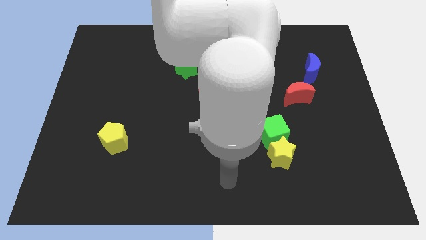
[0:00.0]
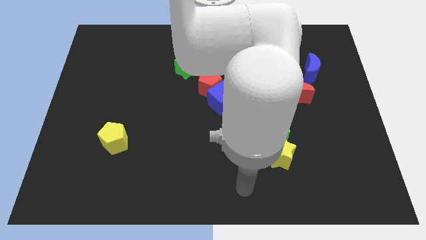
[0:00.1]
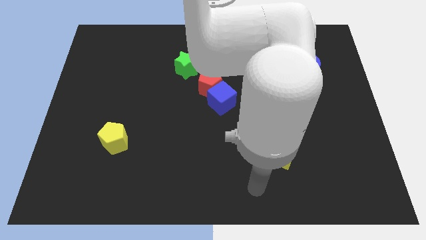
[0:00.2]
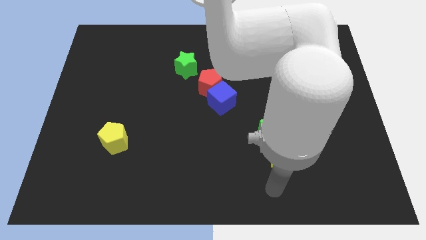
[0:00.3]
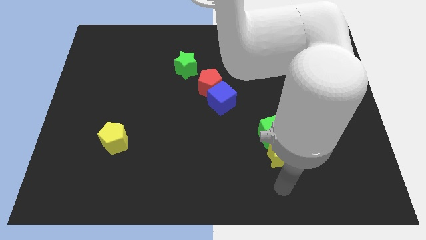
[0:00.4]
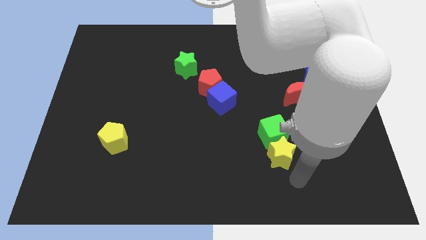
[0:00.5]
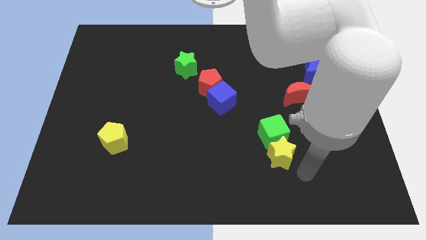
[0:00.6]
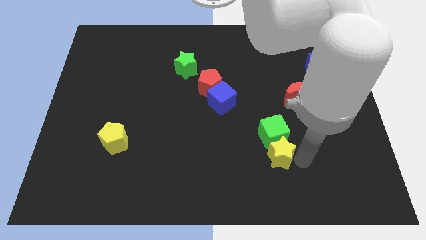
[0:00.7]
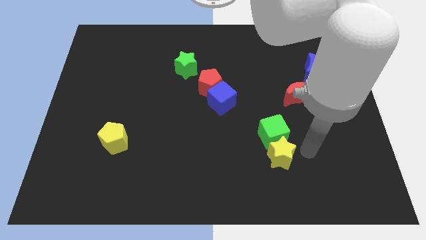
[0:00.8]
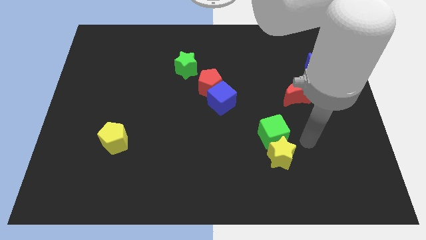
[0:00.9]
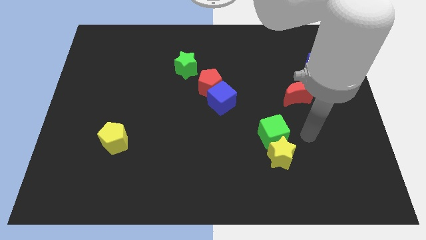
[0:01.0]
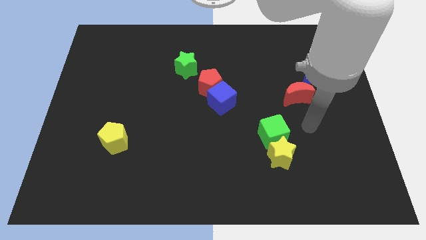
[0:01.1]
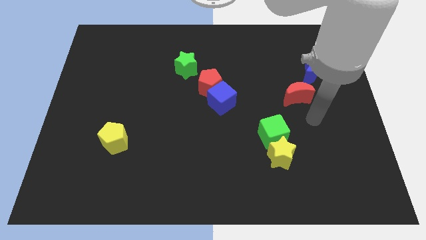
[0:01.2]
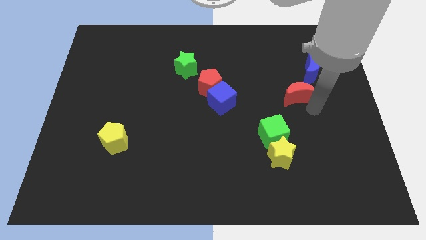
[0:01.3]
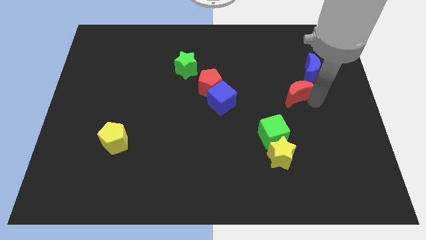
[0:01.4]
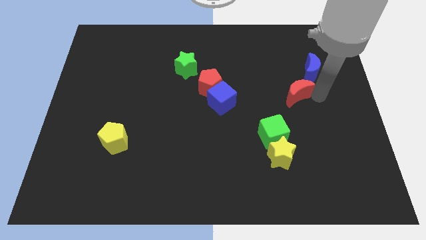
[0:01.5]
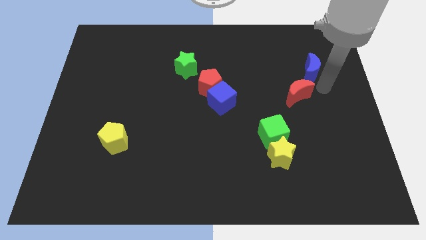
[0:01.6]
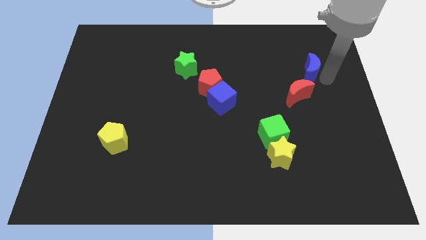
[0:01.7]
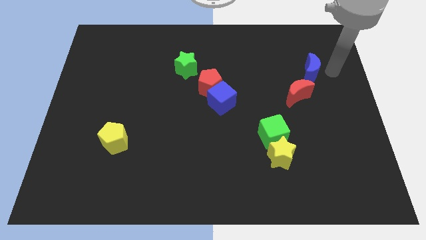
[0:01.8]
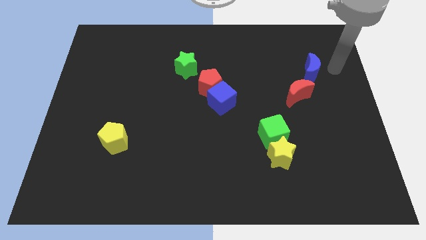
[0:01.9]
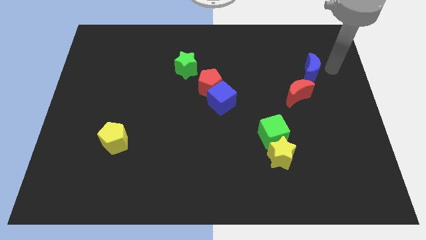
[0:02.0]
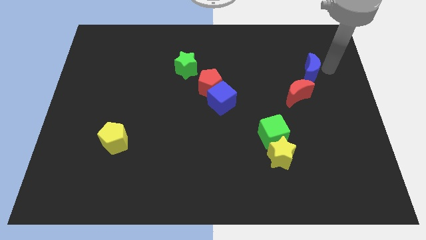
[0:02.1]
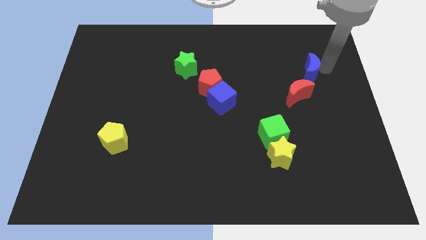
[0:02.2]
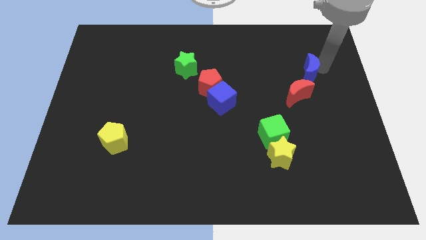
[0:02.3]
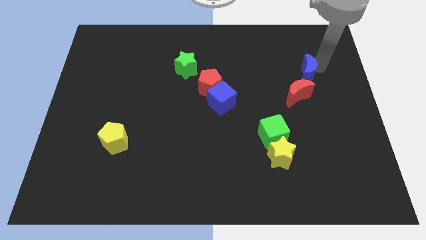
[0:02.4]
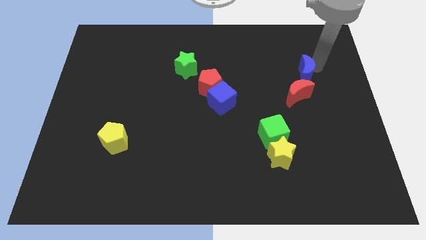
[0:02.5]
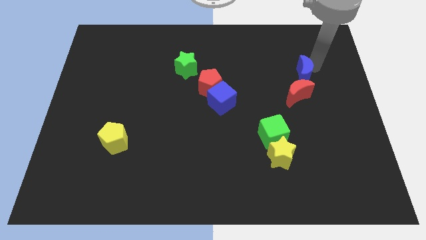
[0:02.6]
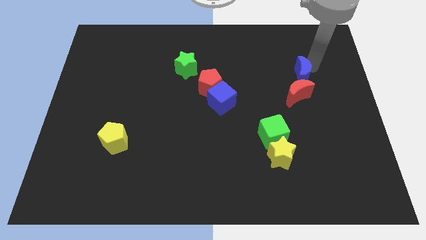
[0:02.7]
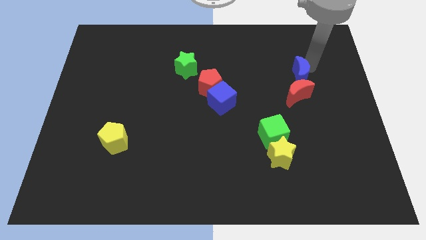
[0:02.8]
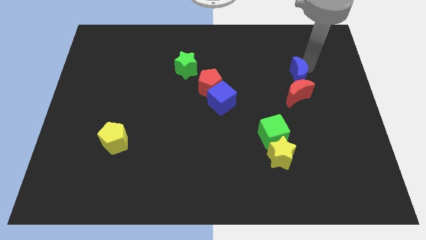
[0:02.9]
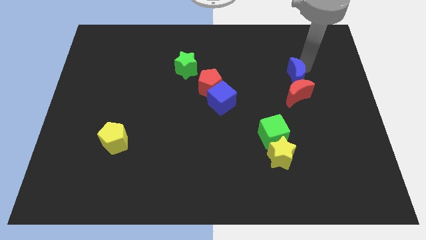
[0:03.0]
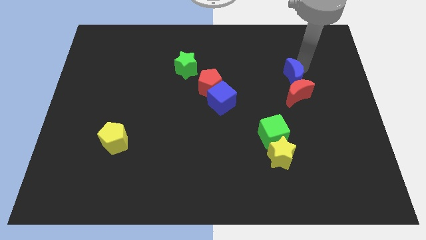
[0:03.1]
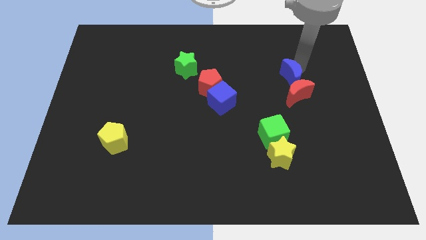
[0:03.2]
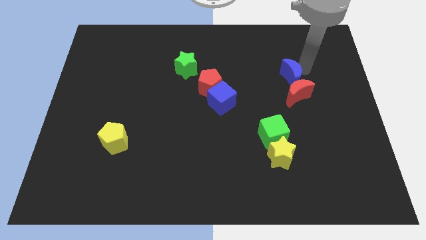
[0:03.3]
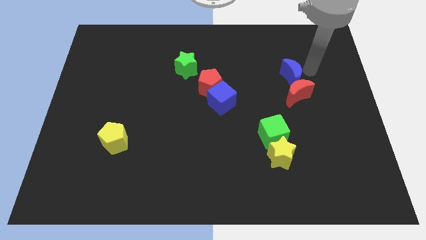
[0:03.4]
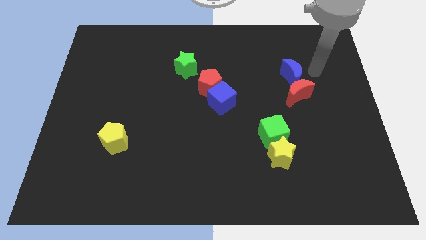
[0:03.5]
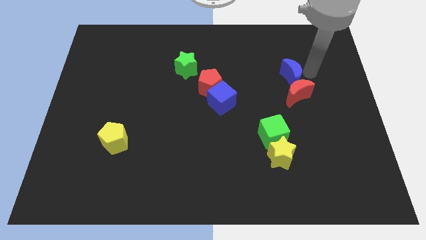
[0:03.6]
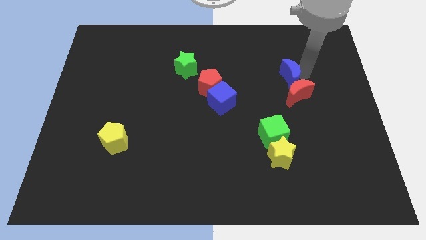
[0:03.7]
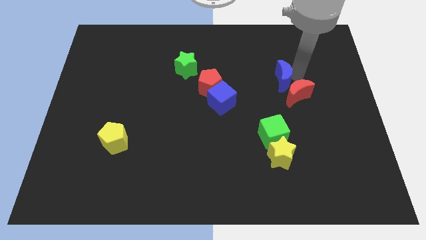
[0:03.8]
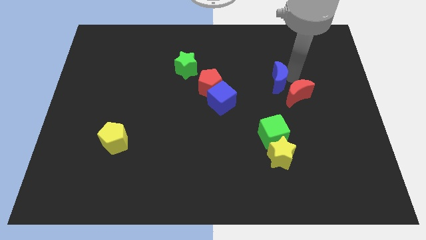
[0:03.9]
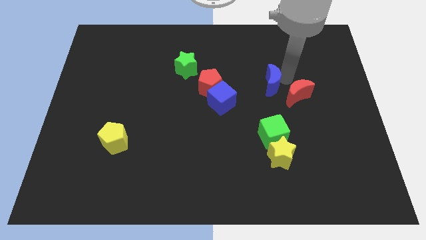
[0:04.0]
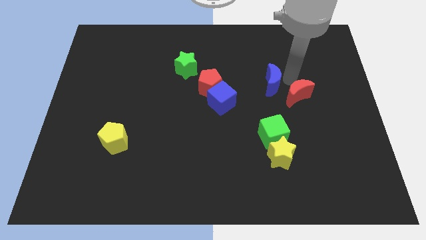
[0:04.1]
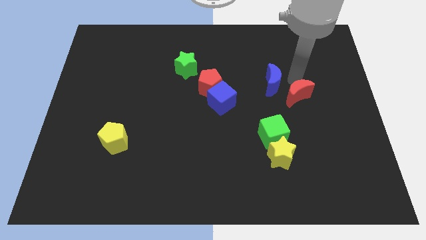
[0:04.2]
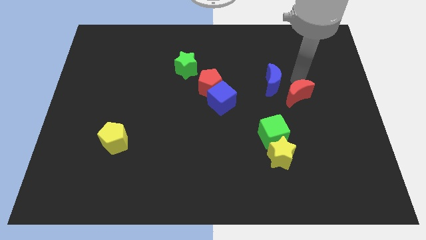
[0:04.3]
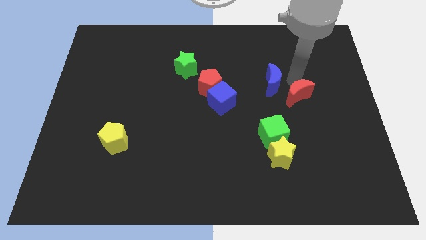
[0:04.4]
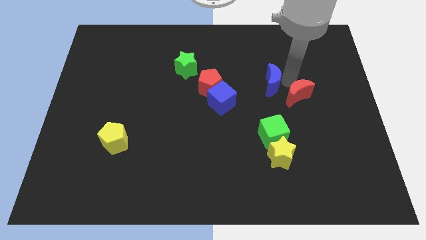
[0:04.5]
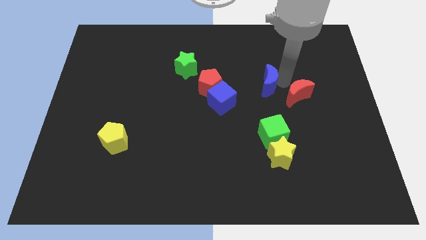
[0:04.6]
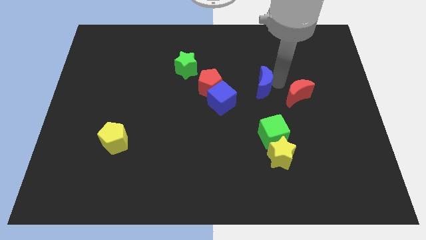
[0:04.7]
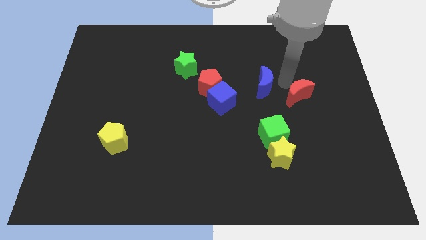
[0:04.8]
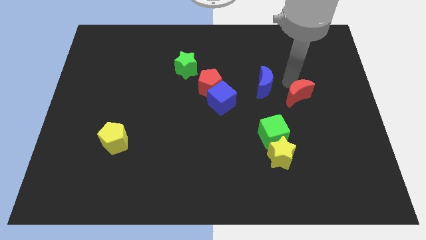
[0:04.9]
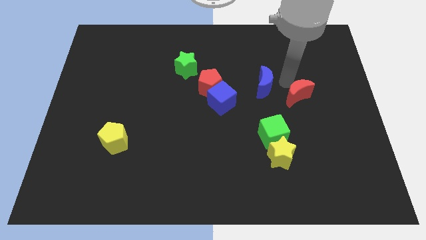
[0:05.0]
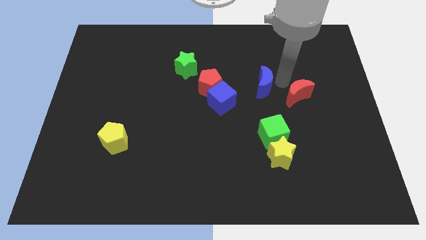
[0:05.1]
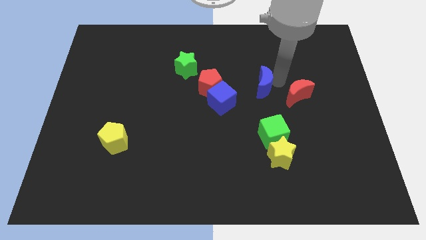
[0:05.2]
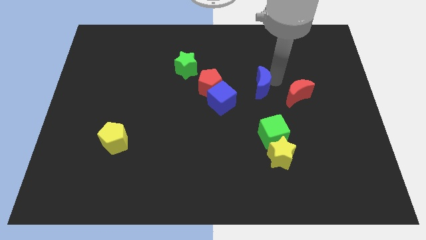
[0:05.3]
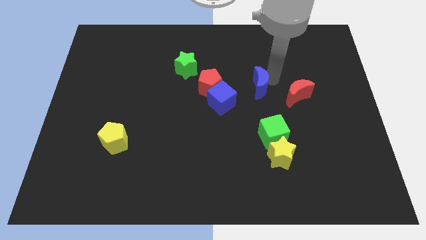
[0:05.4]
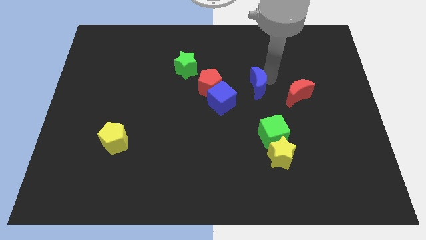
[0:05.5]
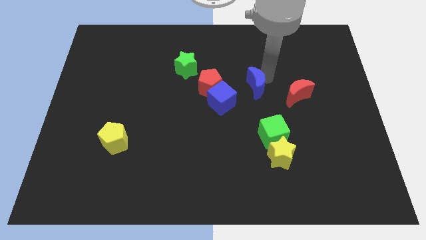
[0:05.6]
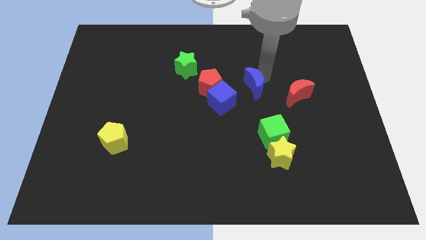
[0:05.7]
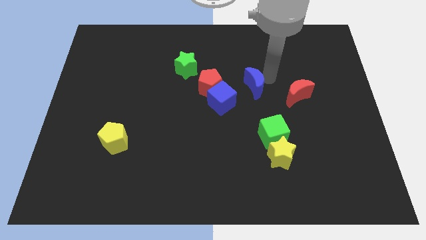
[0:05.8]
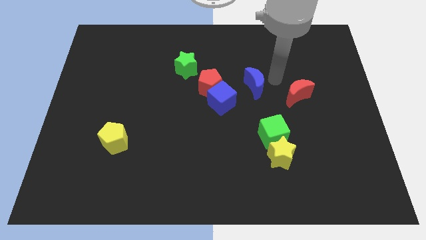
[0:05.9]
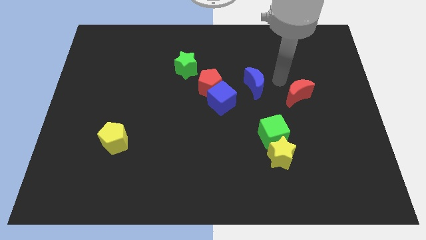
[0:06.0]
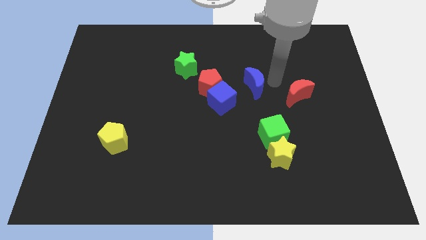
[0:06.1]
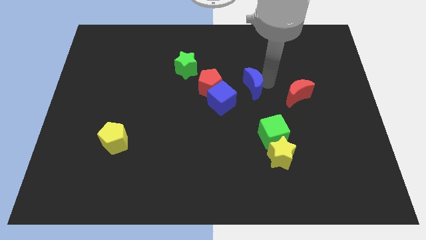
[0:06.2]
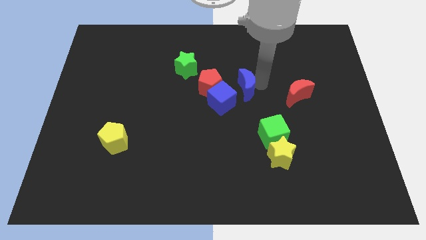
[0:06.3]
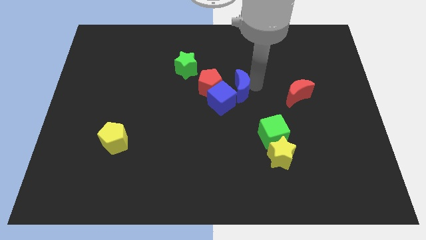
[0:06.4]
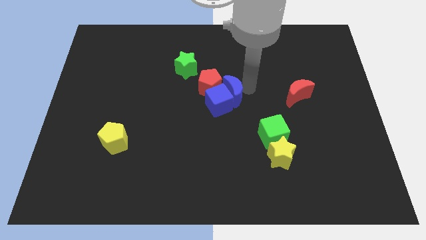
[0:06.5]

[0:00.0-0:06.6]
push the blue moon towards the red pentagon
